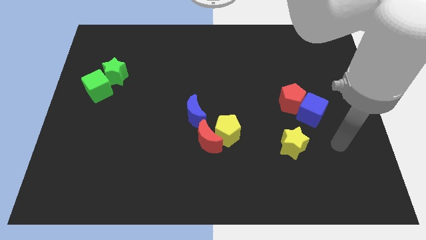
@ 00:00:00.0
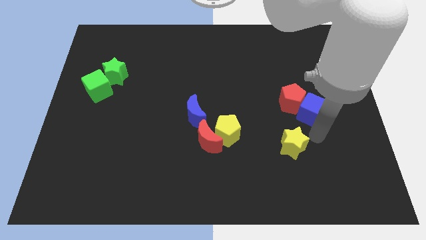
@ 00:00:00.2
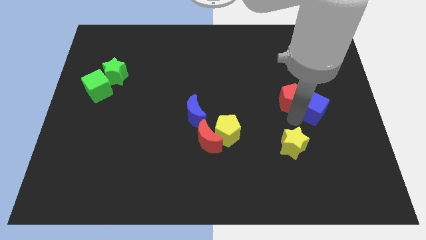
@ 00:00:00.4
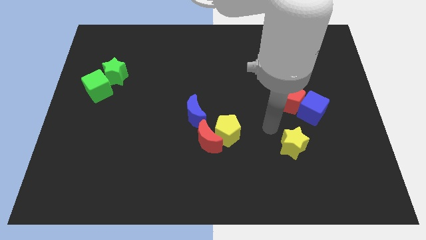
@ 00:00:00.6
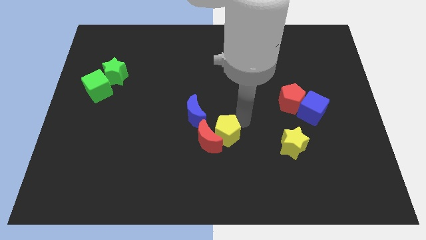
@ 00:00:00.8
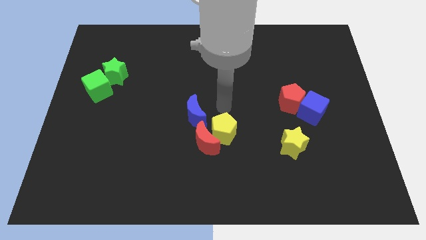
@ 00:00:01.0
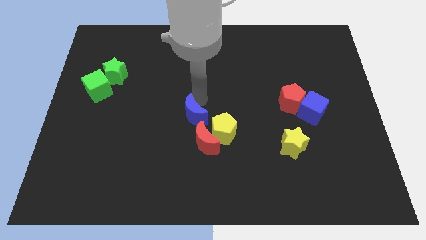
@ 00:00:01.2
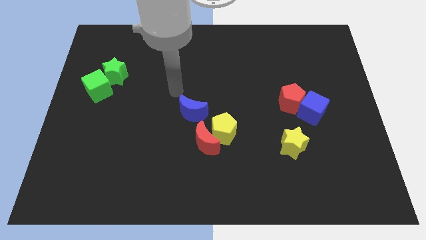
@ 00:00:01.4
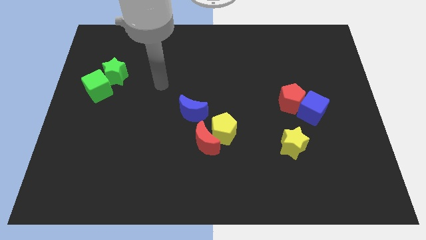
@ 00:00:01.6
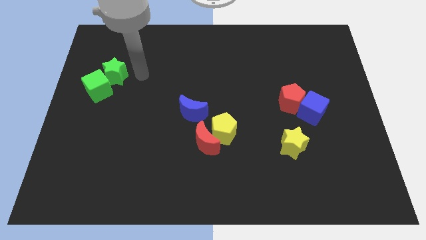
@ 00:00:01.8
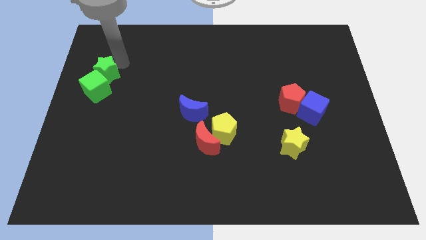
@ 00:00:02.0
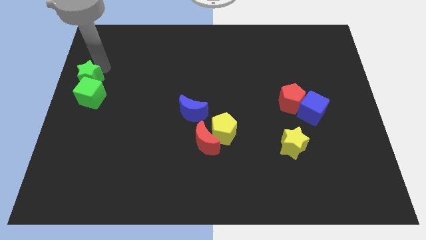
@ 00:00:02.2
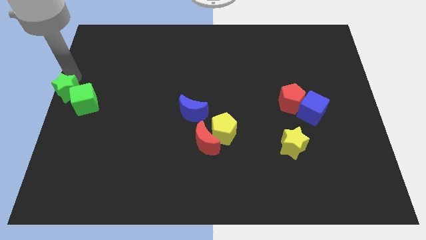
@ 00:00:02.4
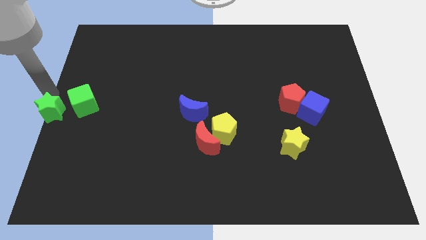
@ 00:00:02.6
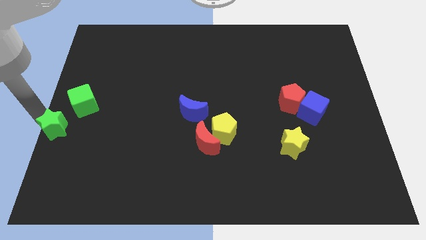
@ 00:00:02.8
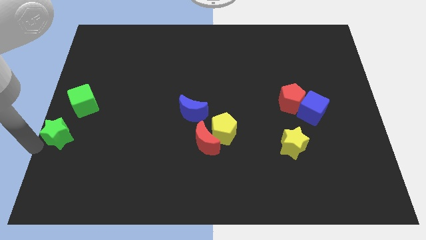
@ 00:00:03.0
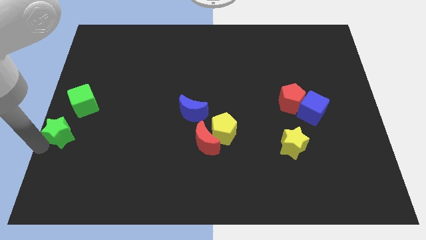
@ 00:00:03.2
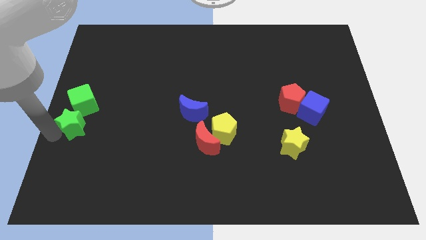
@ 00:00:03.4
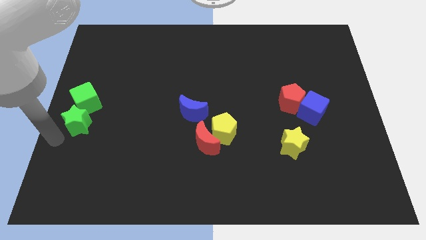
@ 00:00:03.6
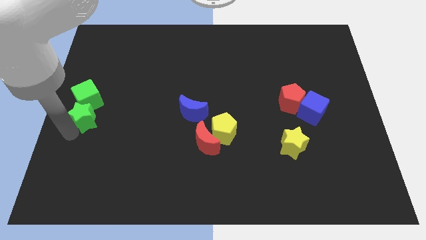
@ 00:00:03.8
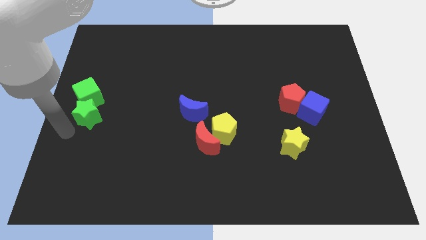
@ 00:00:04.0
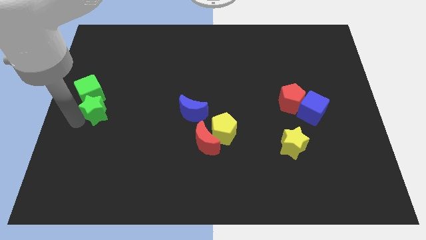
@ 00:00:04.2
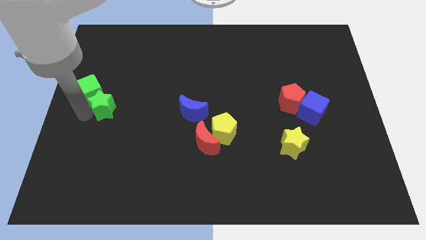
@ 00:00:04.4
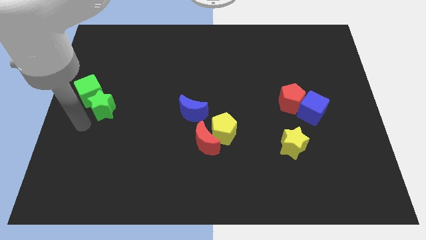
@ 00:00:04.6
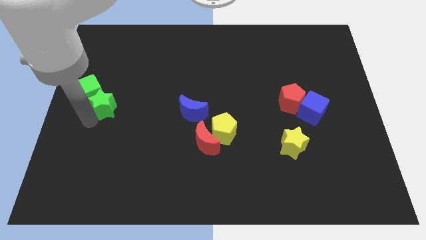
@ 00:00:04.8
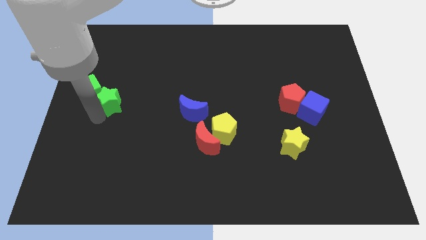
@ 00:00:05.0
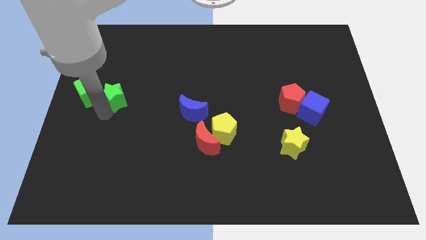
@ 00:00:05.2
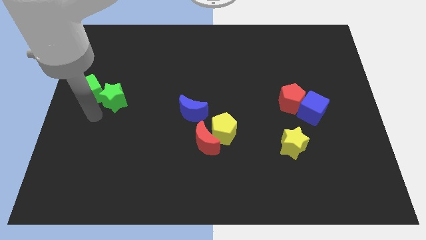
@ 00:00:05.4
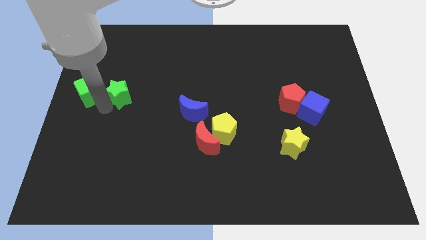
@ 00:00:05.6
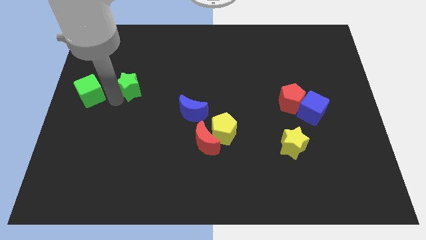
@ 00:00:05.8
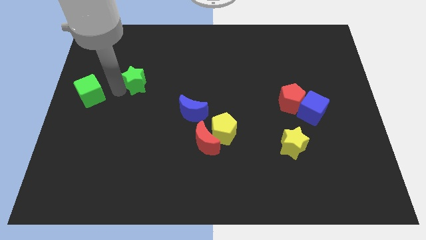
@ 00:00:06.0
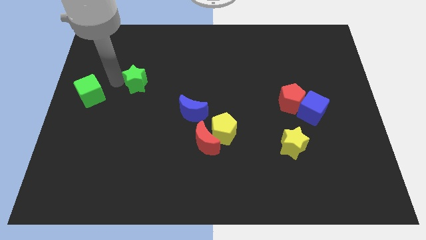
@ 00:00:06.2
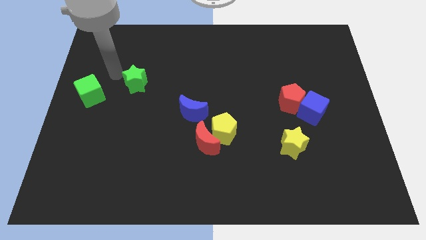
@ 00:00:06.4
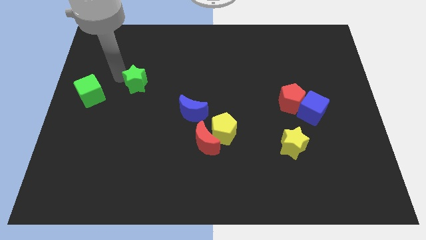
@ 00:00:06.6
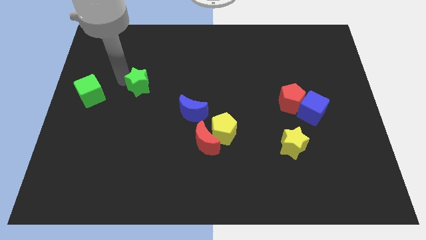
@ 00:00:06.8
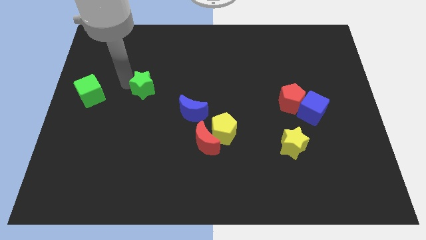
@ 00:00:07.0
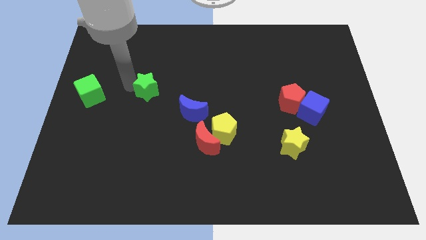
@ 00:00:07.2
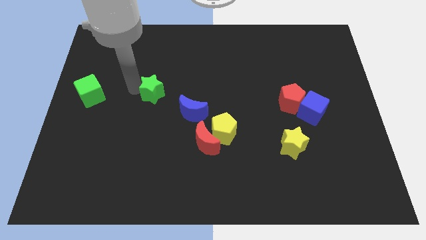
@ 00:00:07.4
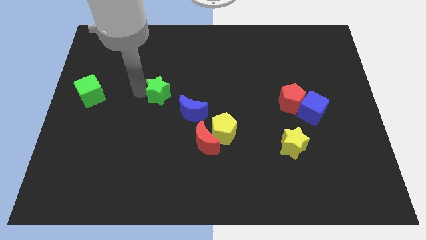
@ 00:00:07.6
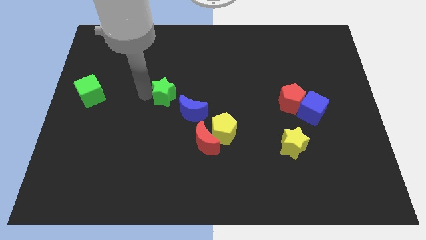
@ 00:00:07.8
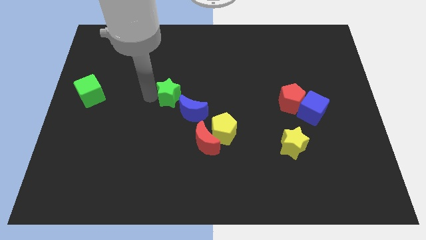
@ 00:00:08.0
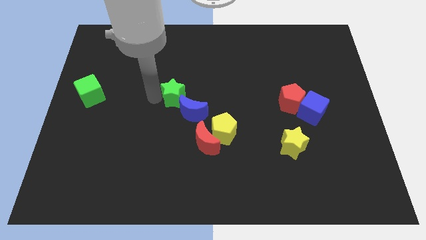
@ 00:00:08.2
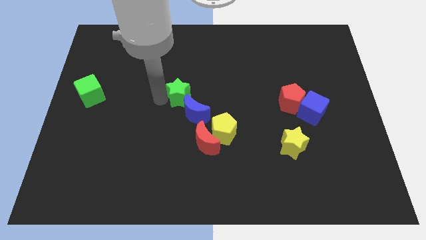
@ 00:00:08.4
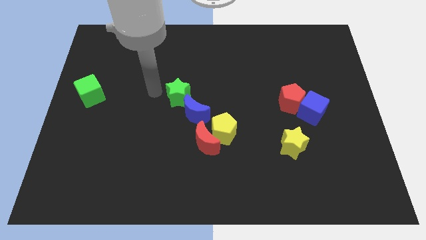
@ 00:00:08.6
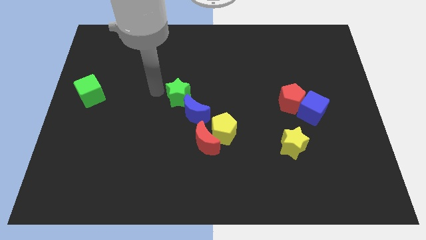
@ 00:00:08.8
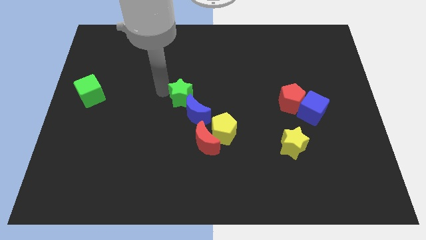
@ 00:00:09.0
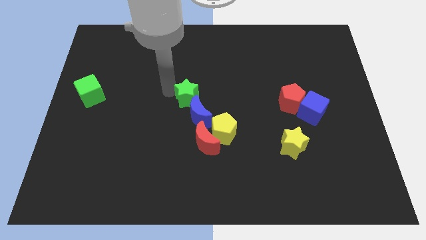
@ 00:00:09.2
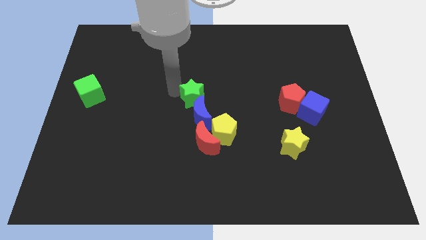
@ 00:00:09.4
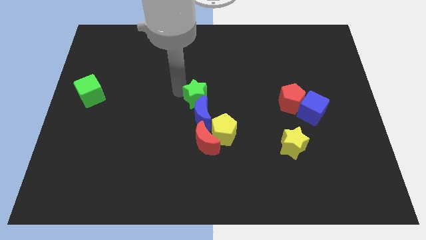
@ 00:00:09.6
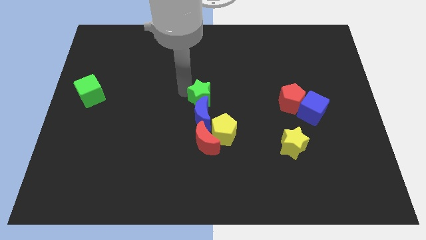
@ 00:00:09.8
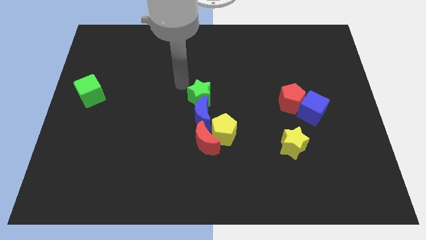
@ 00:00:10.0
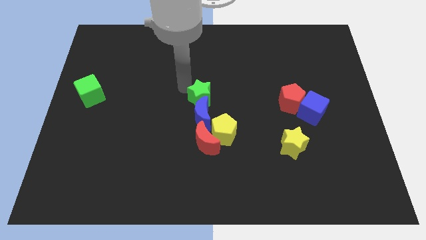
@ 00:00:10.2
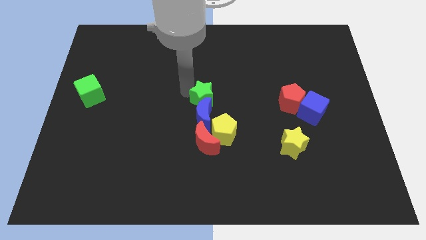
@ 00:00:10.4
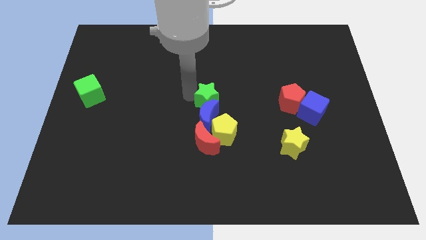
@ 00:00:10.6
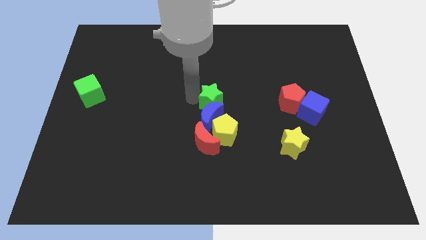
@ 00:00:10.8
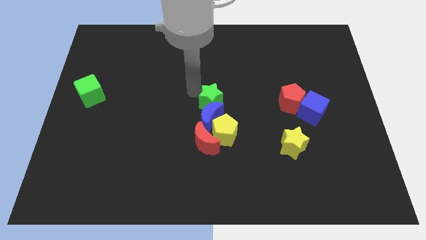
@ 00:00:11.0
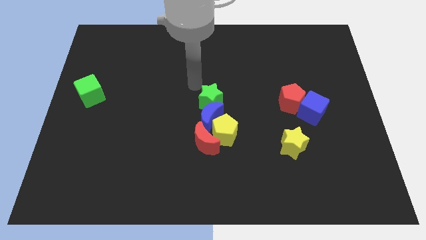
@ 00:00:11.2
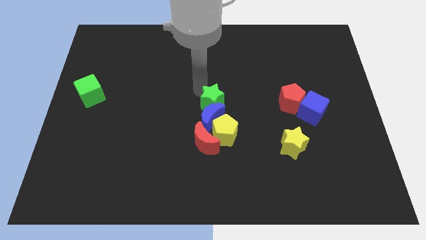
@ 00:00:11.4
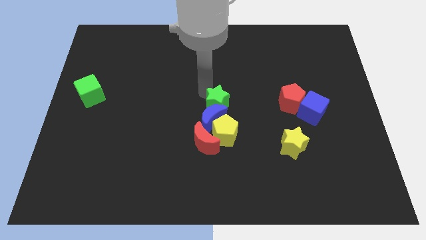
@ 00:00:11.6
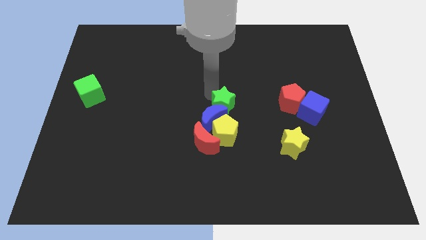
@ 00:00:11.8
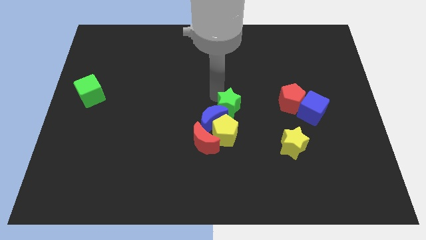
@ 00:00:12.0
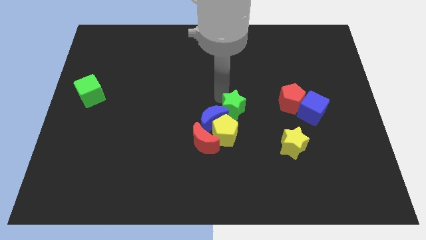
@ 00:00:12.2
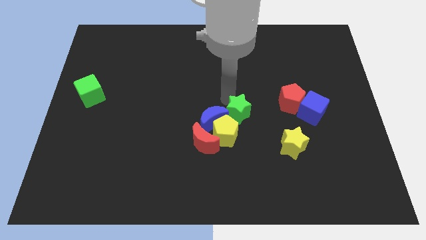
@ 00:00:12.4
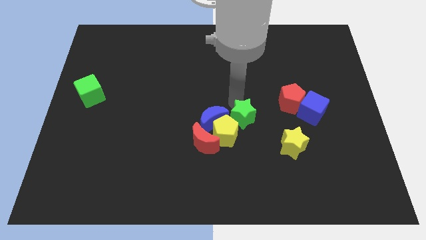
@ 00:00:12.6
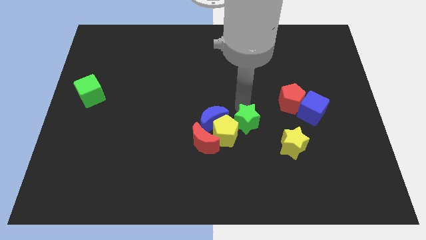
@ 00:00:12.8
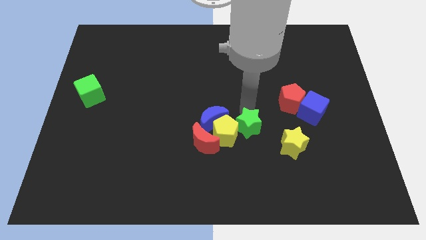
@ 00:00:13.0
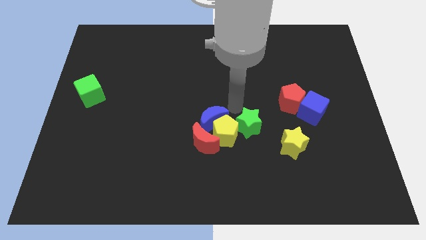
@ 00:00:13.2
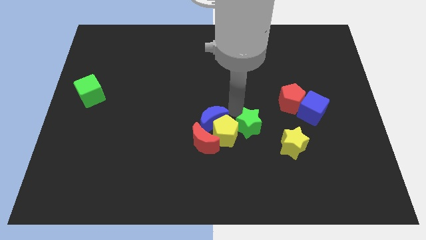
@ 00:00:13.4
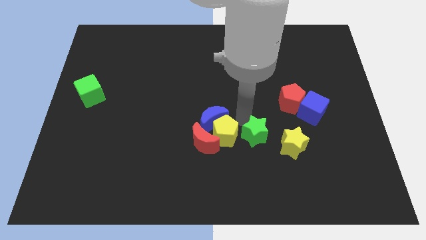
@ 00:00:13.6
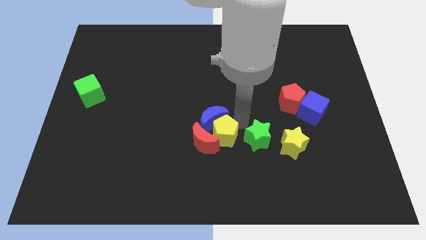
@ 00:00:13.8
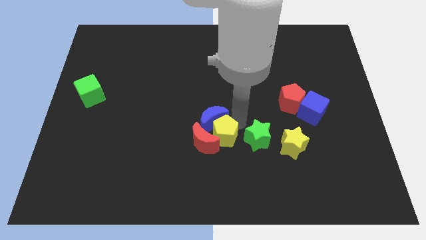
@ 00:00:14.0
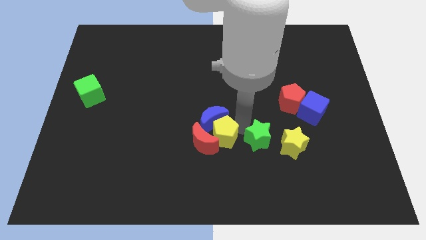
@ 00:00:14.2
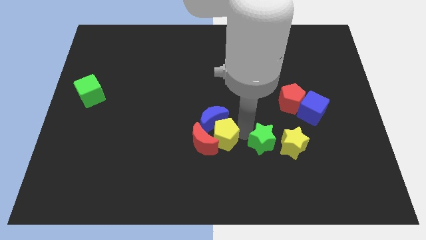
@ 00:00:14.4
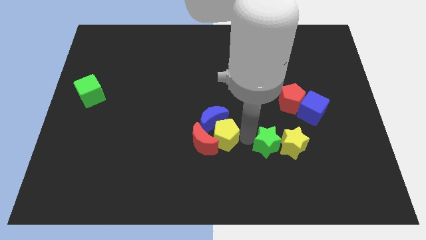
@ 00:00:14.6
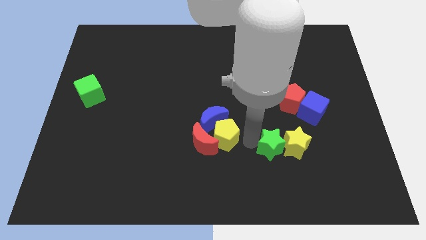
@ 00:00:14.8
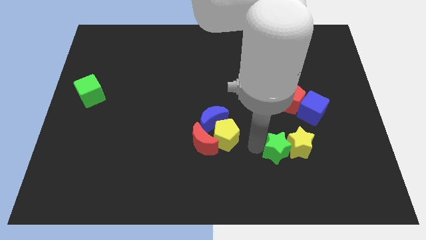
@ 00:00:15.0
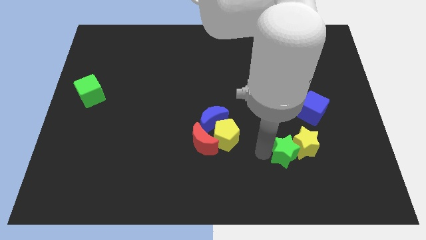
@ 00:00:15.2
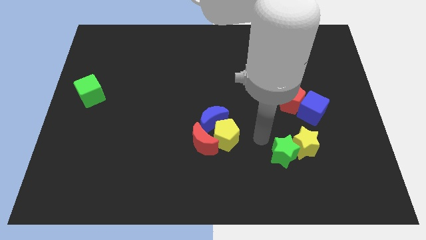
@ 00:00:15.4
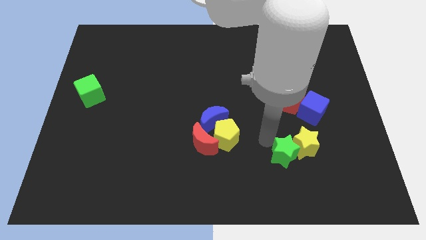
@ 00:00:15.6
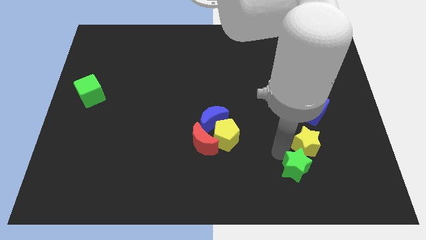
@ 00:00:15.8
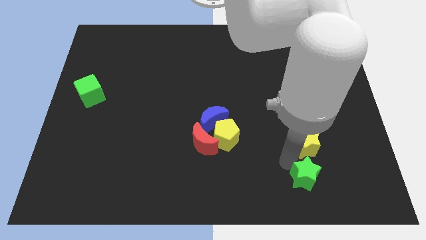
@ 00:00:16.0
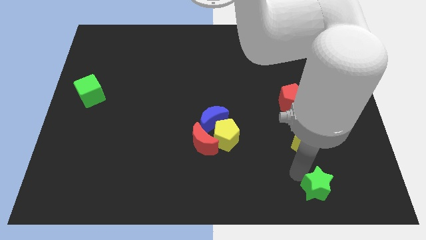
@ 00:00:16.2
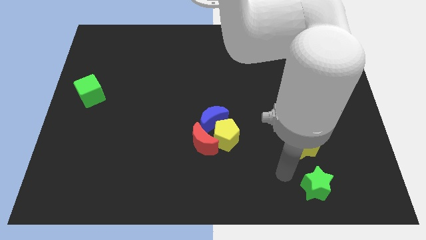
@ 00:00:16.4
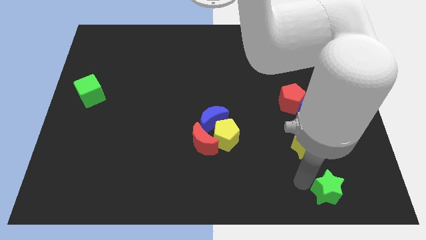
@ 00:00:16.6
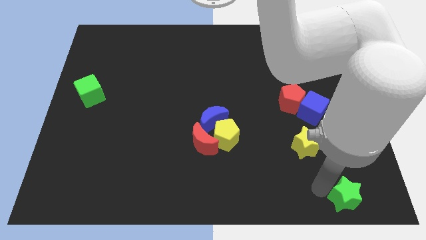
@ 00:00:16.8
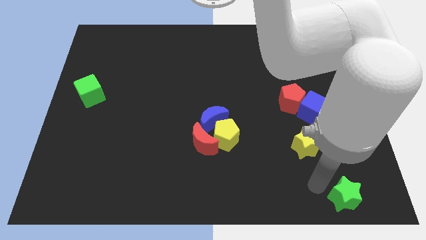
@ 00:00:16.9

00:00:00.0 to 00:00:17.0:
put the green star to the lower right corner
